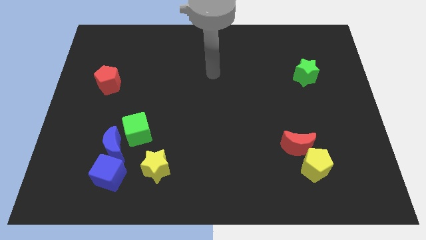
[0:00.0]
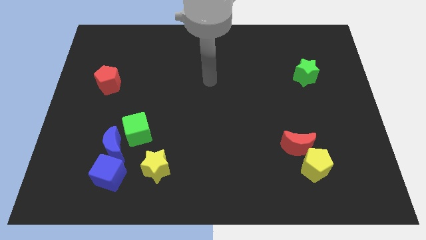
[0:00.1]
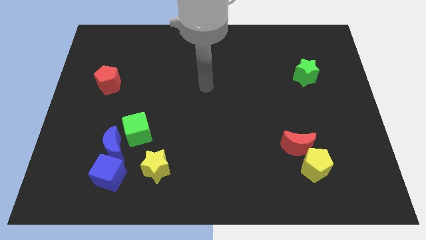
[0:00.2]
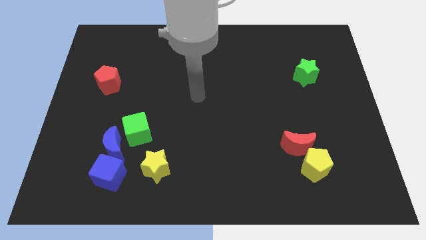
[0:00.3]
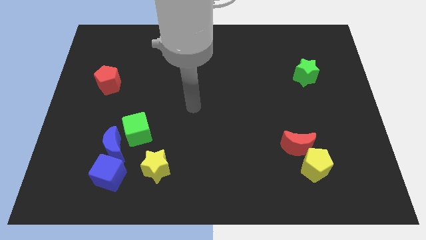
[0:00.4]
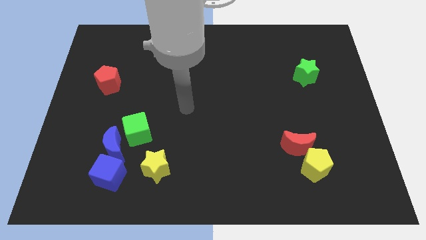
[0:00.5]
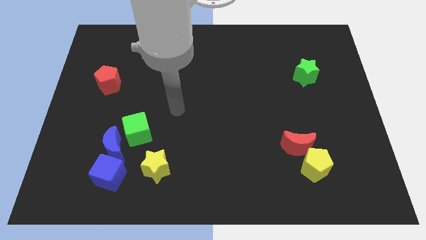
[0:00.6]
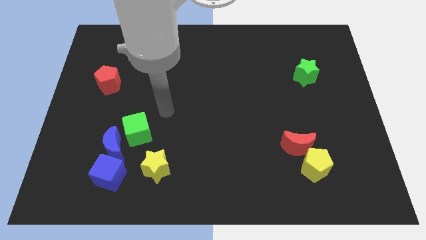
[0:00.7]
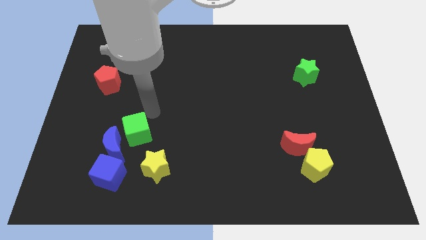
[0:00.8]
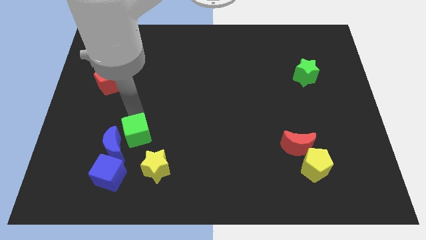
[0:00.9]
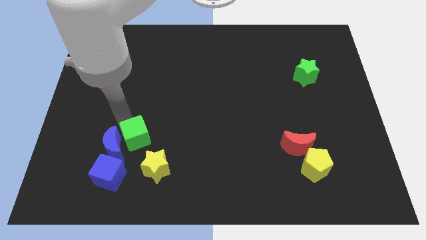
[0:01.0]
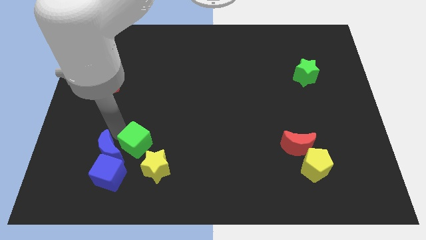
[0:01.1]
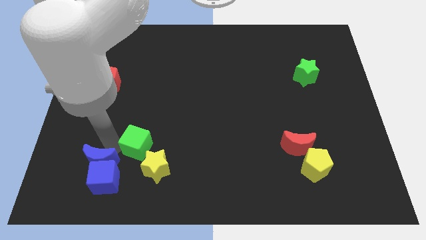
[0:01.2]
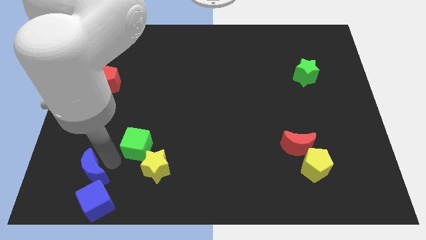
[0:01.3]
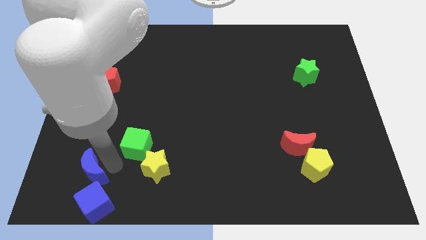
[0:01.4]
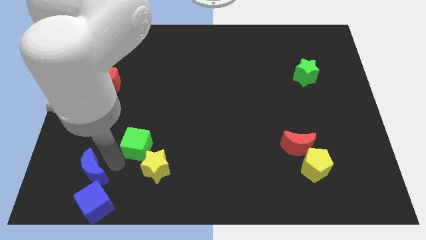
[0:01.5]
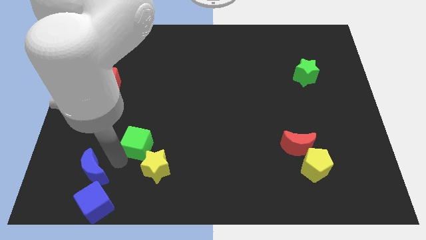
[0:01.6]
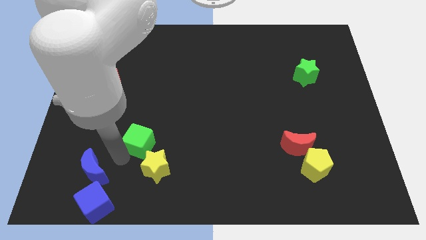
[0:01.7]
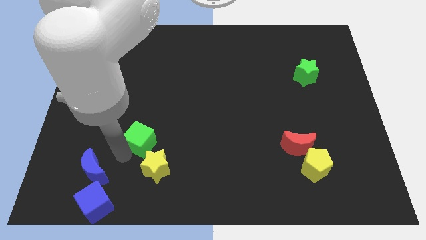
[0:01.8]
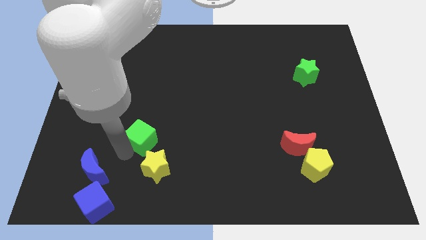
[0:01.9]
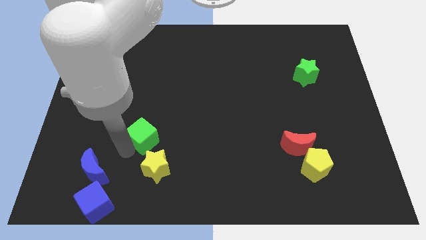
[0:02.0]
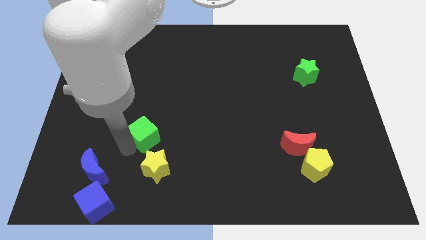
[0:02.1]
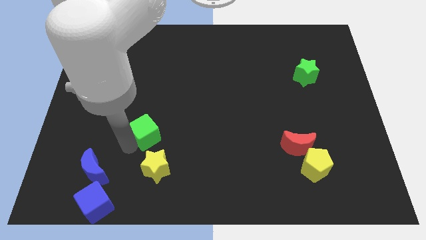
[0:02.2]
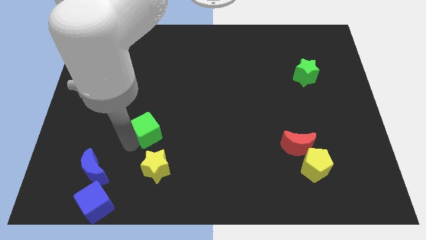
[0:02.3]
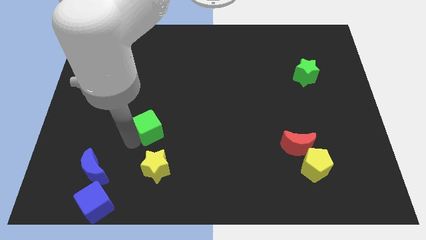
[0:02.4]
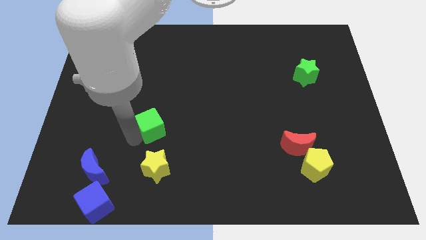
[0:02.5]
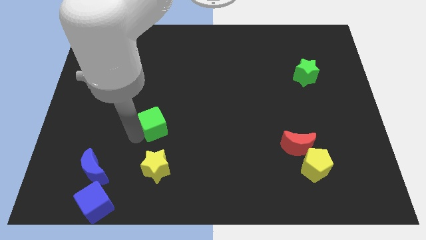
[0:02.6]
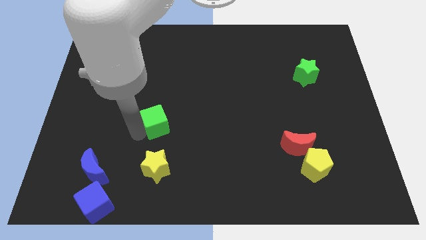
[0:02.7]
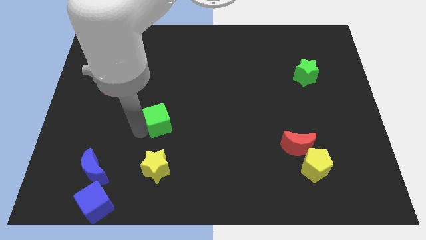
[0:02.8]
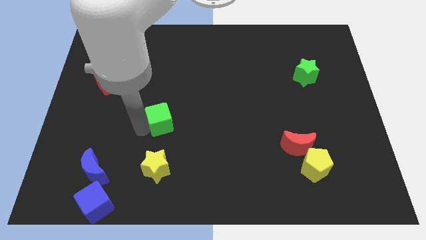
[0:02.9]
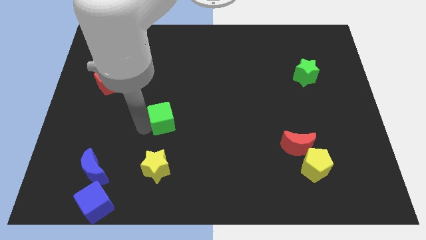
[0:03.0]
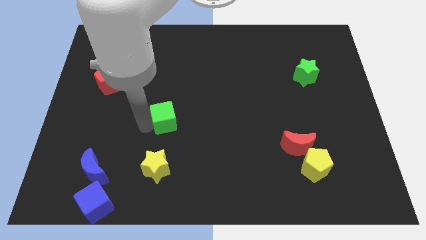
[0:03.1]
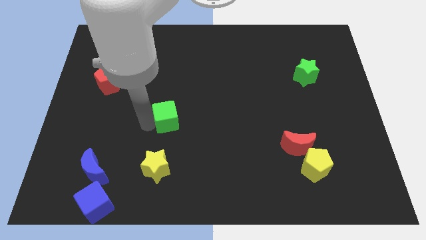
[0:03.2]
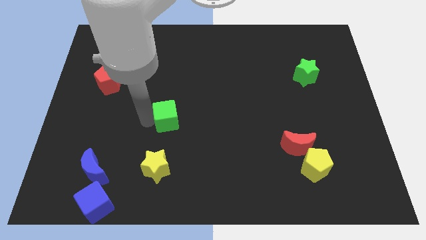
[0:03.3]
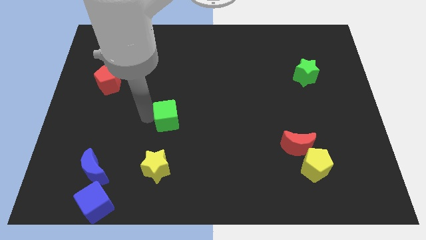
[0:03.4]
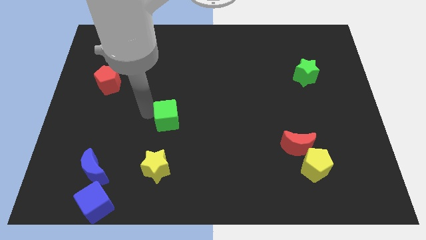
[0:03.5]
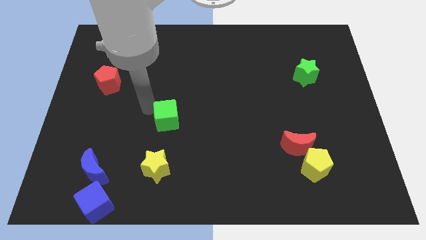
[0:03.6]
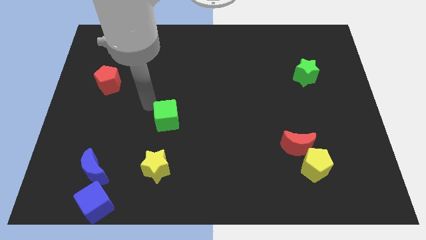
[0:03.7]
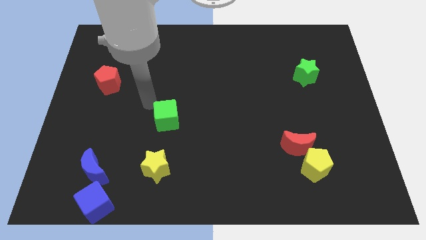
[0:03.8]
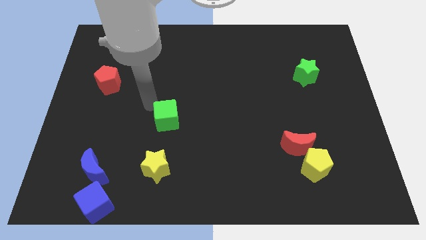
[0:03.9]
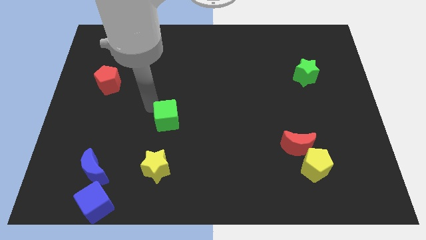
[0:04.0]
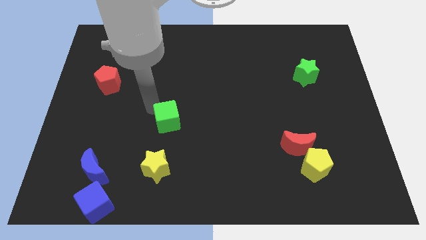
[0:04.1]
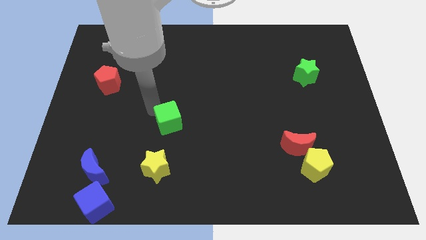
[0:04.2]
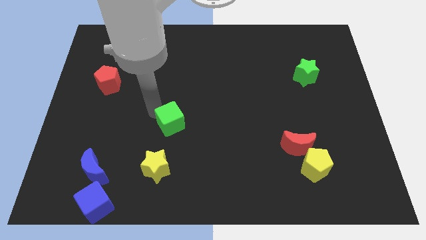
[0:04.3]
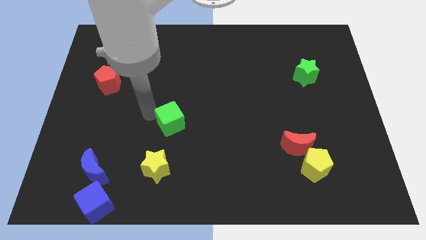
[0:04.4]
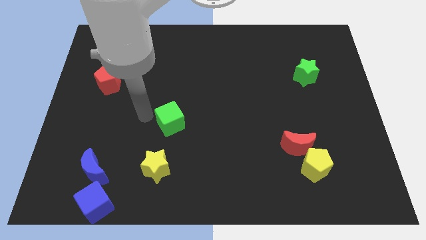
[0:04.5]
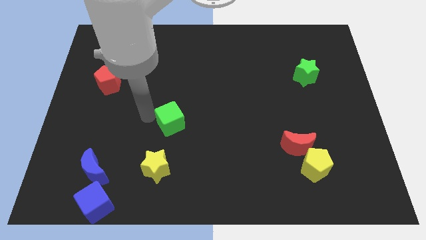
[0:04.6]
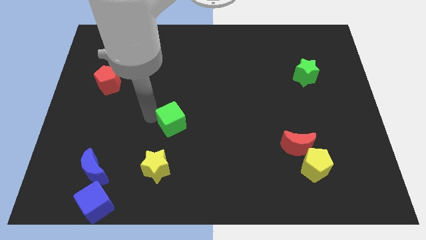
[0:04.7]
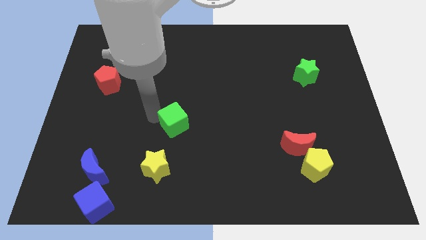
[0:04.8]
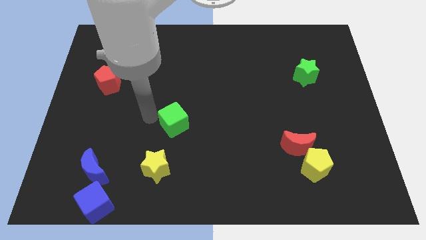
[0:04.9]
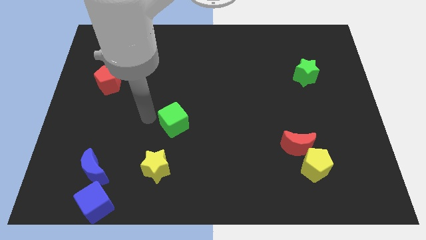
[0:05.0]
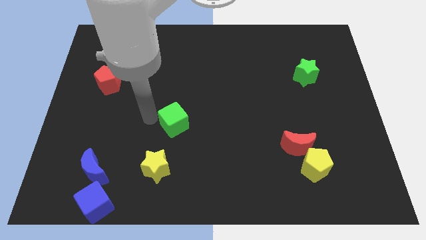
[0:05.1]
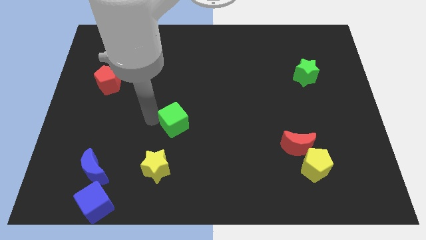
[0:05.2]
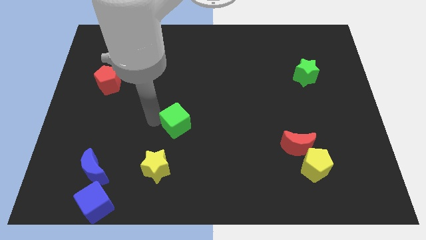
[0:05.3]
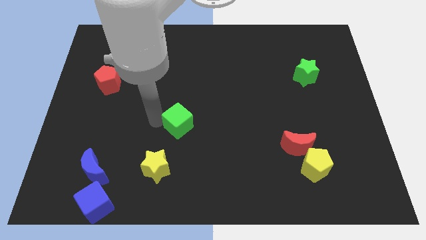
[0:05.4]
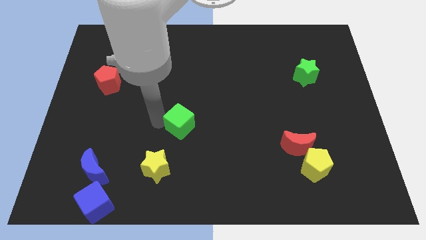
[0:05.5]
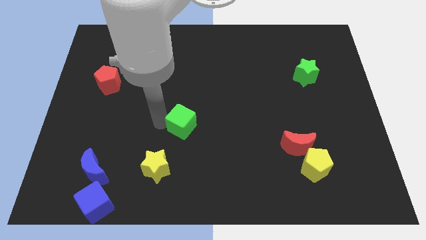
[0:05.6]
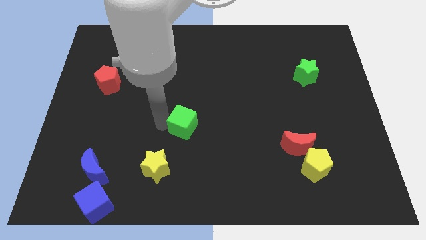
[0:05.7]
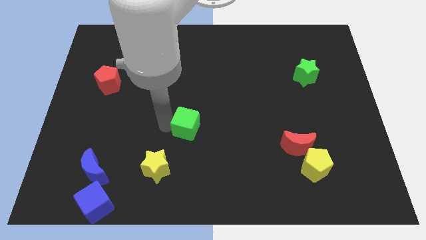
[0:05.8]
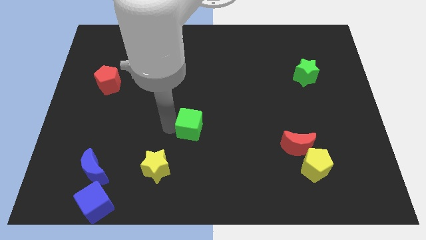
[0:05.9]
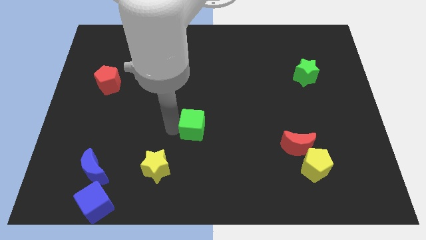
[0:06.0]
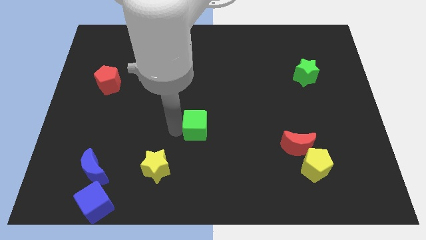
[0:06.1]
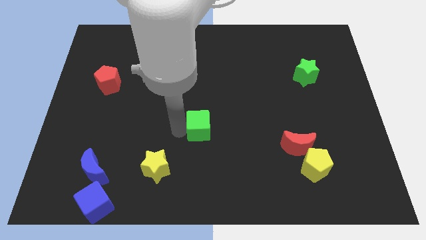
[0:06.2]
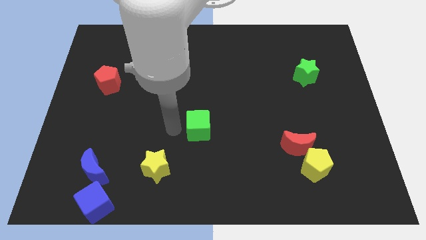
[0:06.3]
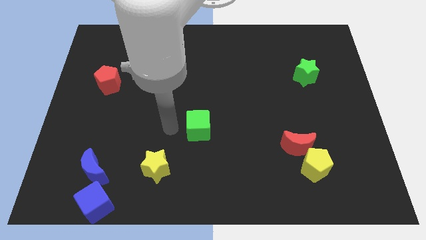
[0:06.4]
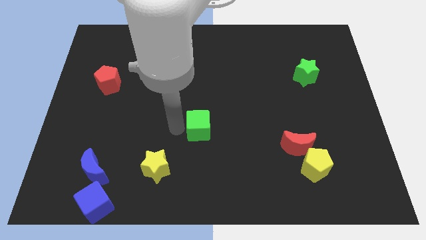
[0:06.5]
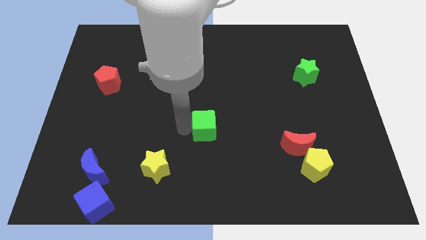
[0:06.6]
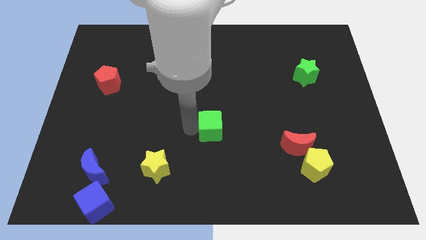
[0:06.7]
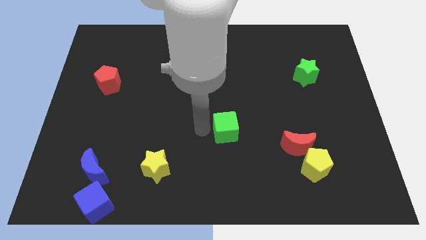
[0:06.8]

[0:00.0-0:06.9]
move the green cube to the right

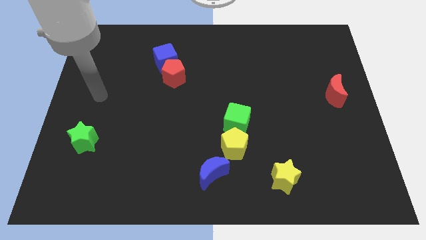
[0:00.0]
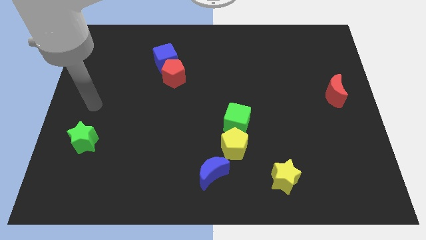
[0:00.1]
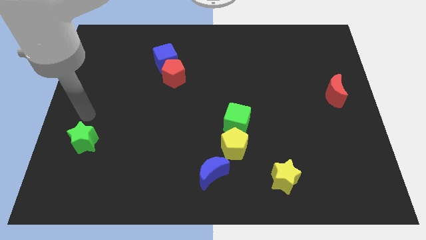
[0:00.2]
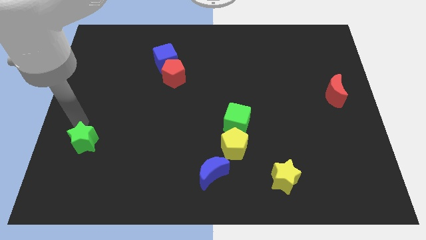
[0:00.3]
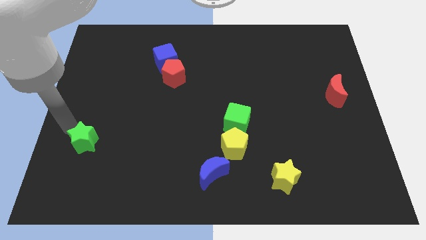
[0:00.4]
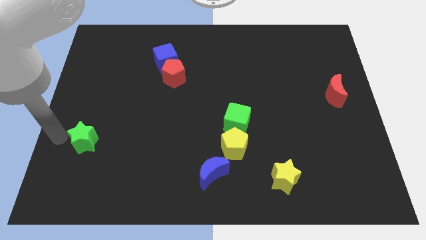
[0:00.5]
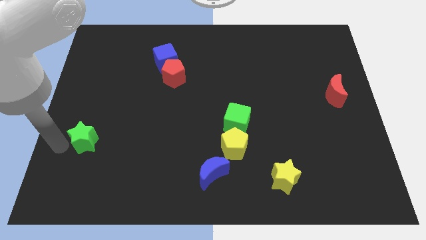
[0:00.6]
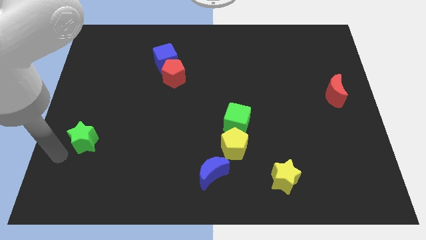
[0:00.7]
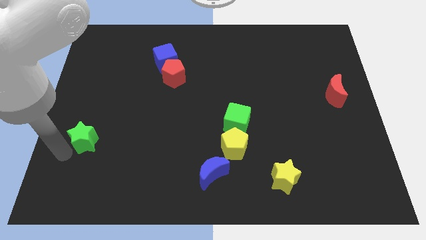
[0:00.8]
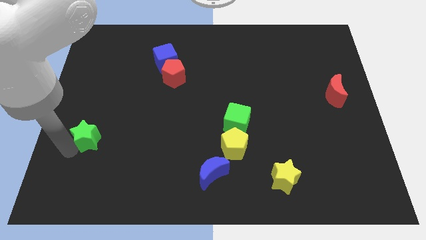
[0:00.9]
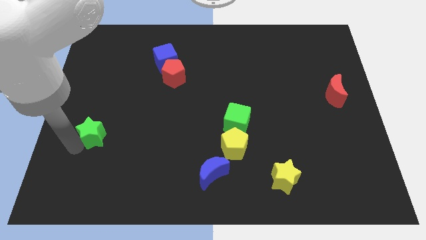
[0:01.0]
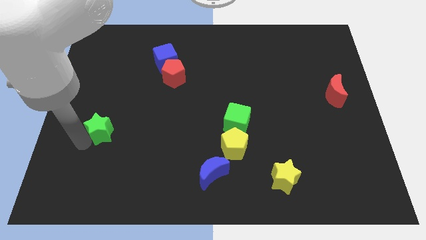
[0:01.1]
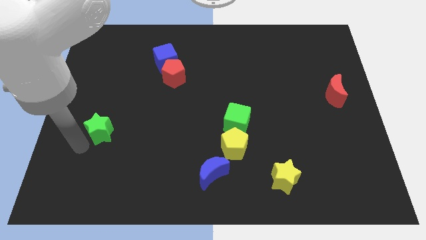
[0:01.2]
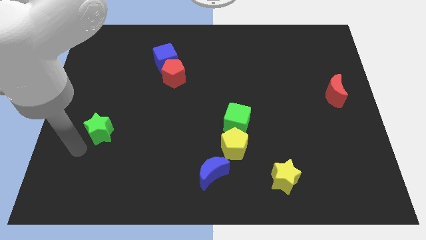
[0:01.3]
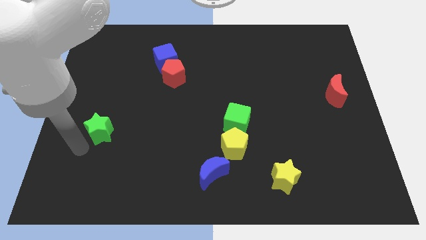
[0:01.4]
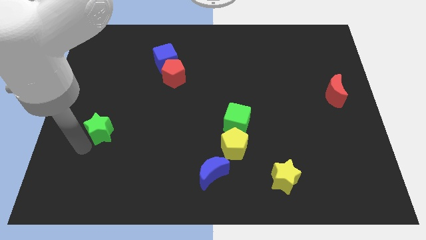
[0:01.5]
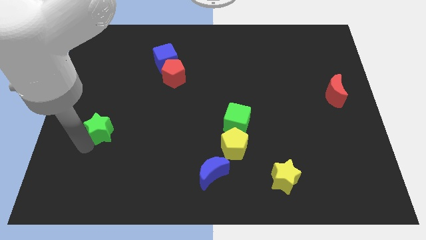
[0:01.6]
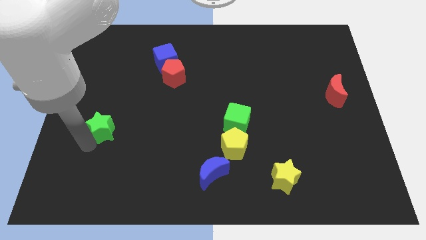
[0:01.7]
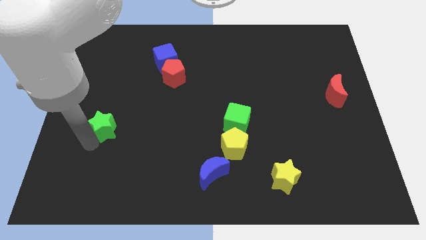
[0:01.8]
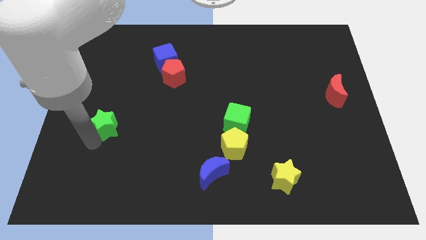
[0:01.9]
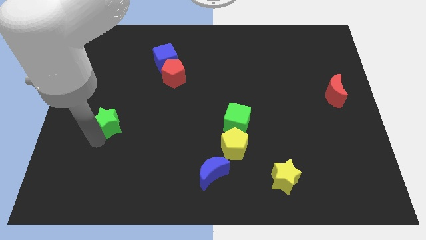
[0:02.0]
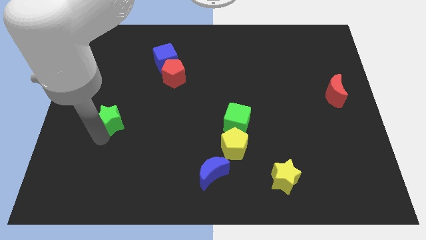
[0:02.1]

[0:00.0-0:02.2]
slide the green star up and then right a bit
